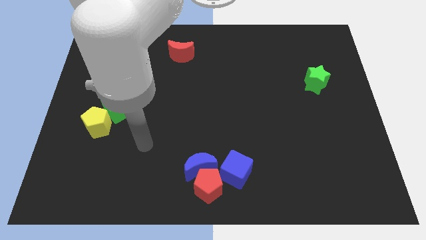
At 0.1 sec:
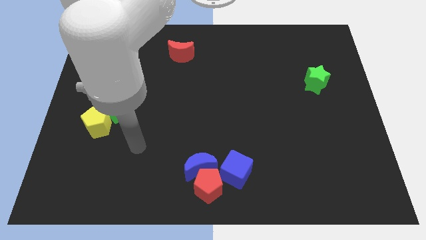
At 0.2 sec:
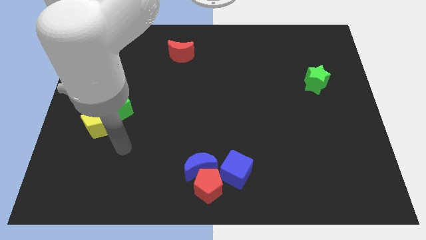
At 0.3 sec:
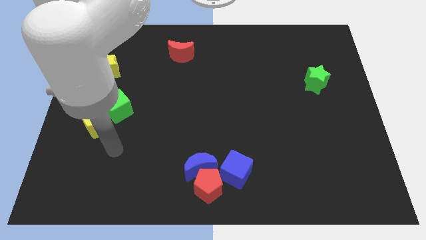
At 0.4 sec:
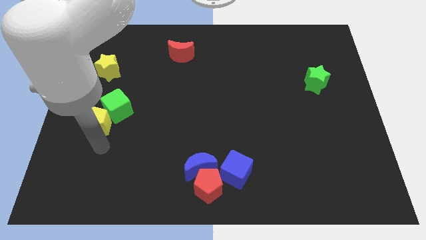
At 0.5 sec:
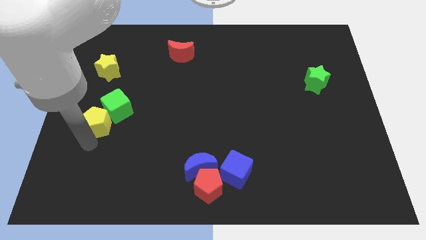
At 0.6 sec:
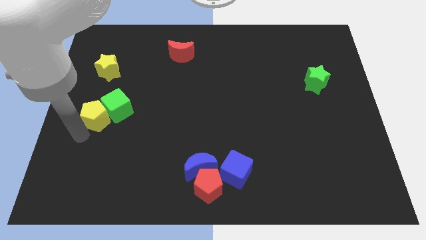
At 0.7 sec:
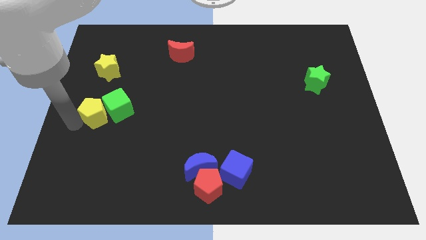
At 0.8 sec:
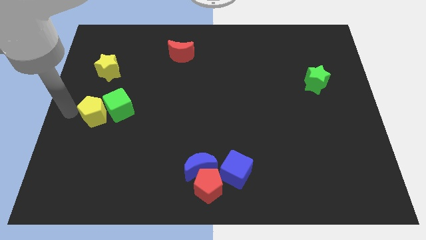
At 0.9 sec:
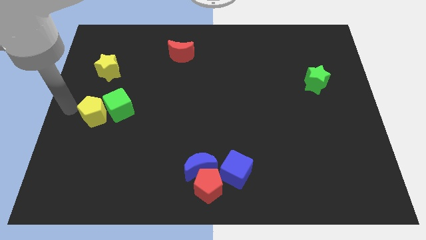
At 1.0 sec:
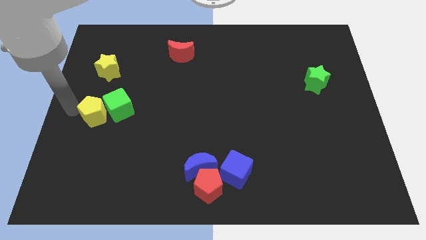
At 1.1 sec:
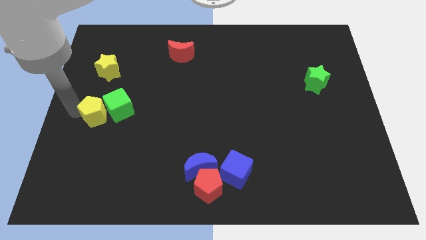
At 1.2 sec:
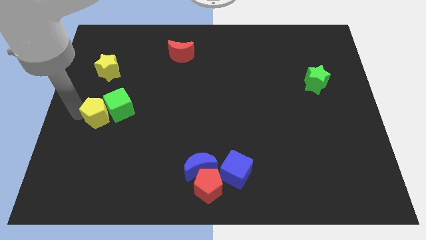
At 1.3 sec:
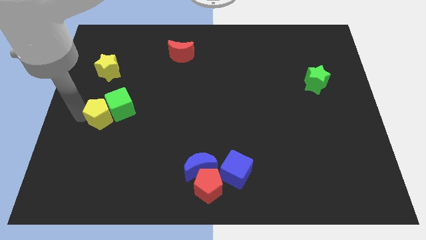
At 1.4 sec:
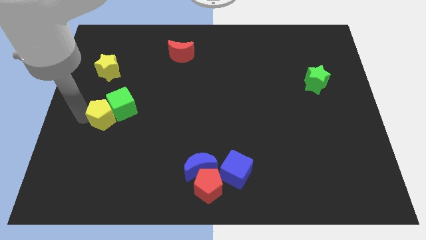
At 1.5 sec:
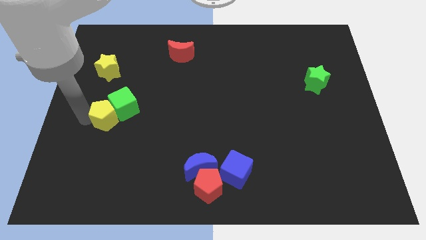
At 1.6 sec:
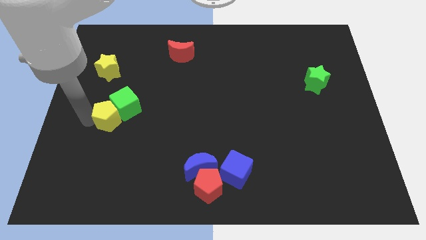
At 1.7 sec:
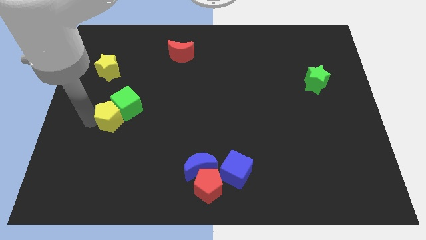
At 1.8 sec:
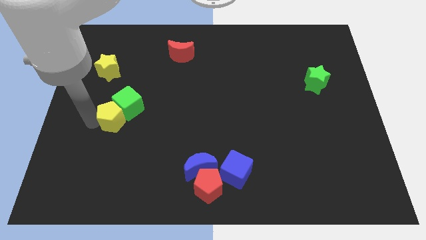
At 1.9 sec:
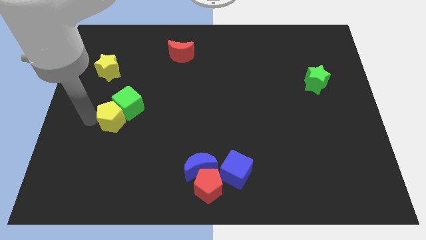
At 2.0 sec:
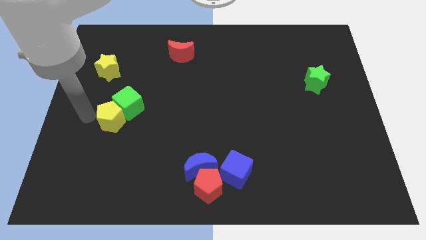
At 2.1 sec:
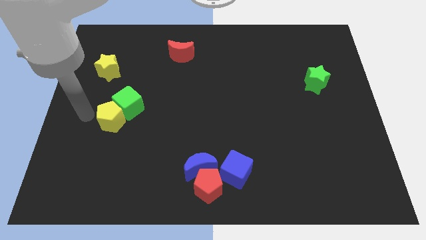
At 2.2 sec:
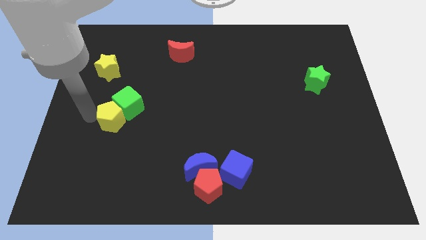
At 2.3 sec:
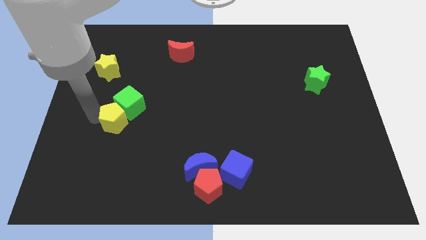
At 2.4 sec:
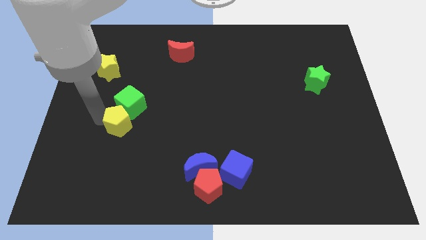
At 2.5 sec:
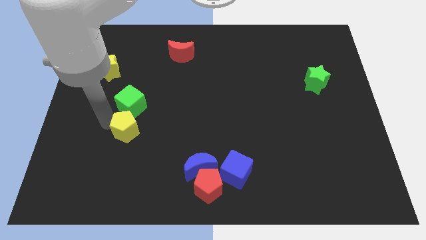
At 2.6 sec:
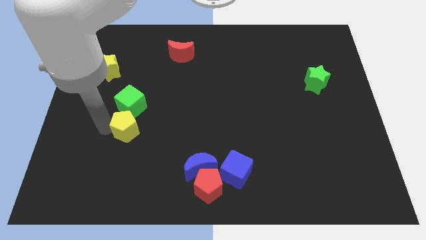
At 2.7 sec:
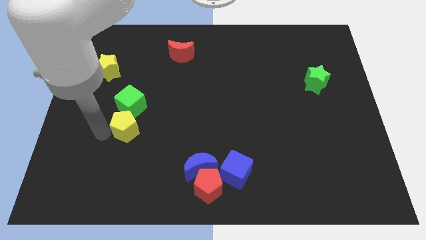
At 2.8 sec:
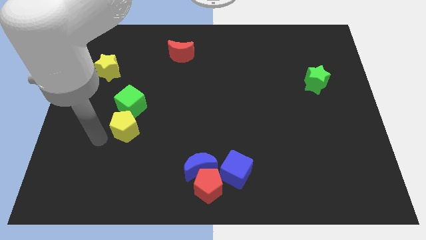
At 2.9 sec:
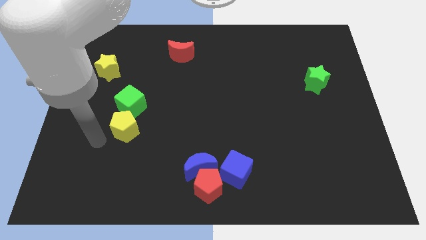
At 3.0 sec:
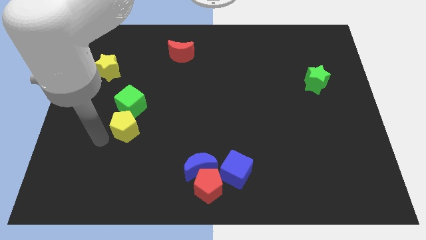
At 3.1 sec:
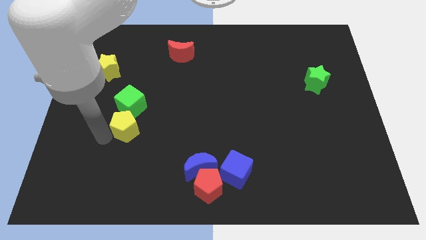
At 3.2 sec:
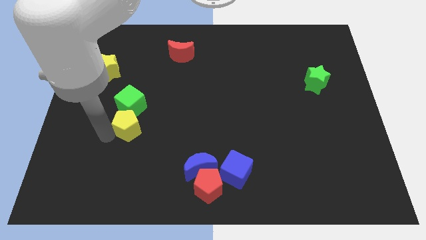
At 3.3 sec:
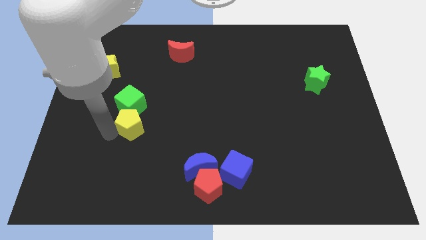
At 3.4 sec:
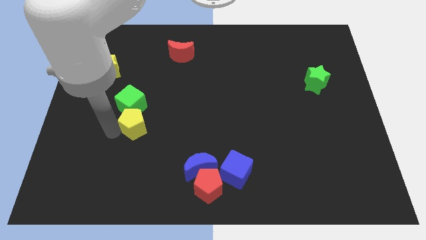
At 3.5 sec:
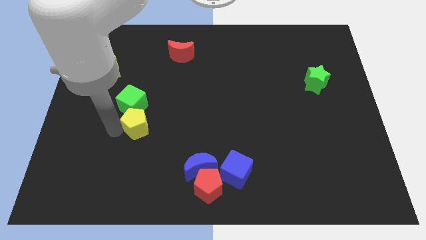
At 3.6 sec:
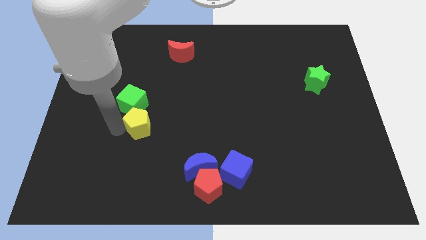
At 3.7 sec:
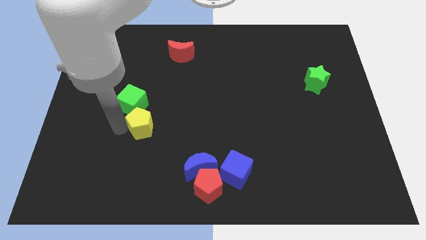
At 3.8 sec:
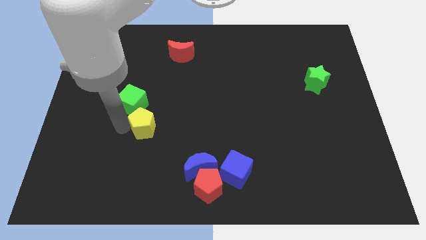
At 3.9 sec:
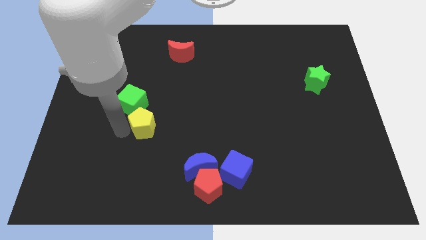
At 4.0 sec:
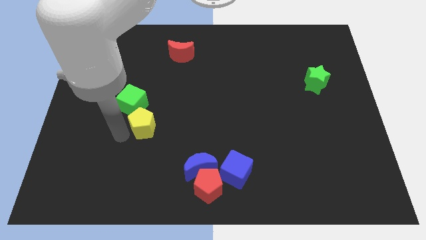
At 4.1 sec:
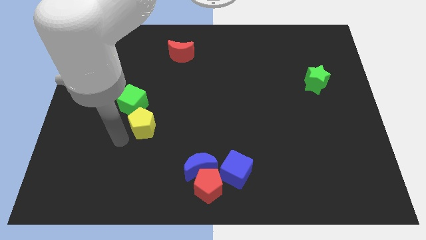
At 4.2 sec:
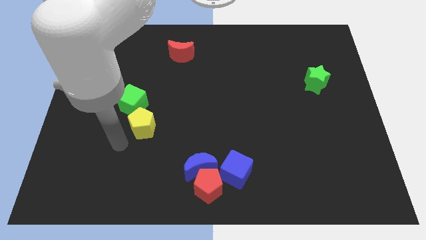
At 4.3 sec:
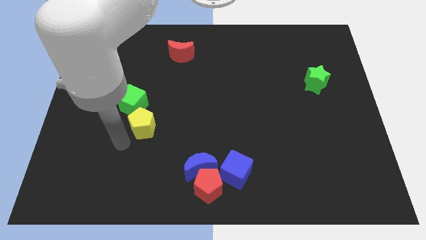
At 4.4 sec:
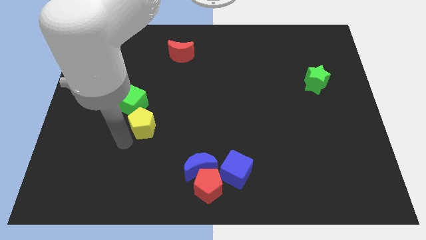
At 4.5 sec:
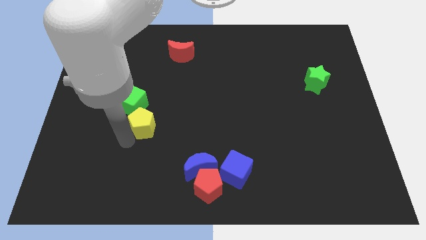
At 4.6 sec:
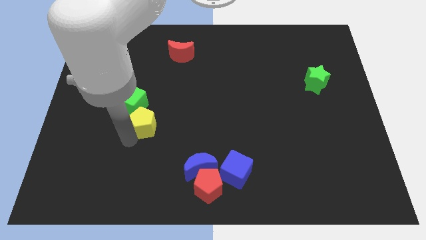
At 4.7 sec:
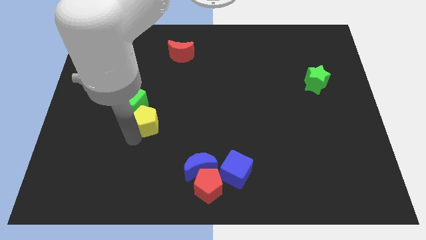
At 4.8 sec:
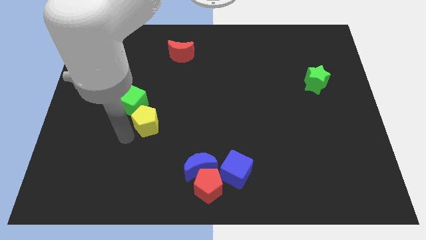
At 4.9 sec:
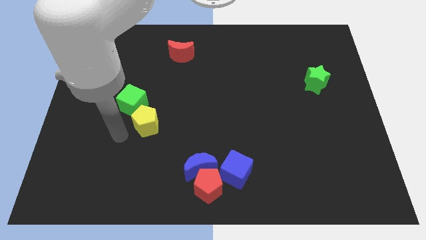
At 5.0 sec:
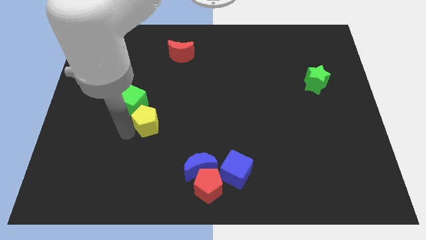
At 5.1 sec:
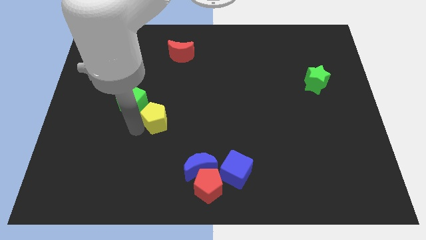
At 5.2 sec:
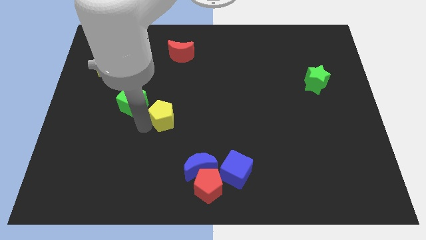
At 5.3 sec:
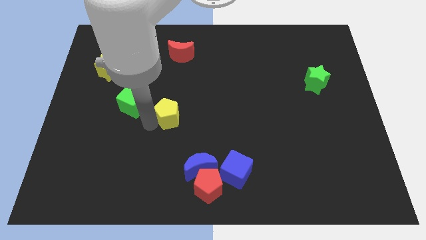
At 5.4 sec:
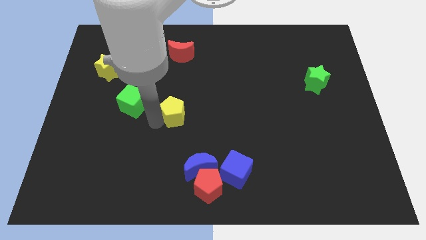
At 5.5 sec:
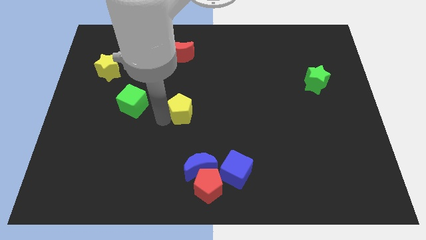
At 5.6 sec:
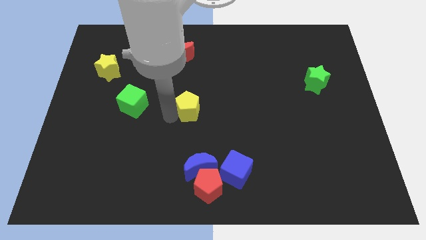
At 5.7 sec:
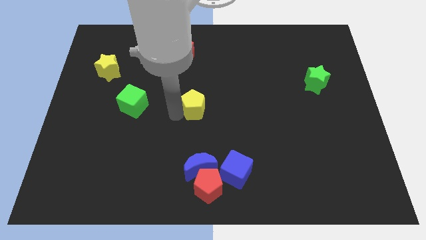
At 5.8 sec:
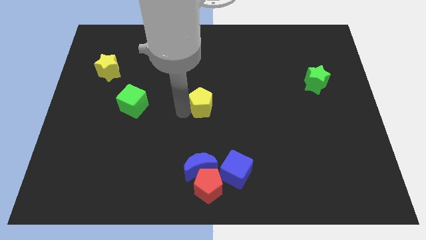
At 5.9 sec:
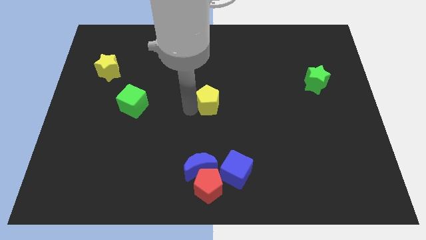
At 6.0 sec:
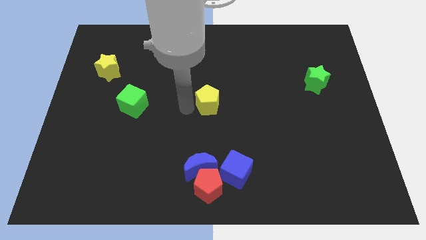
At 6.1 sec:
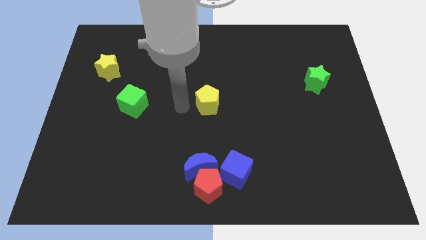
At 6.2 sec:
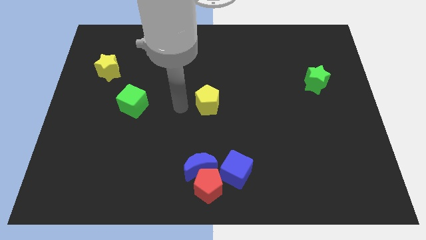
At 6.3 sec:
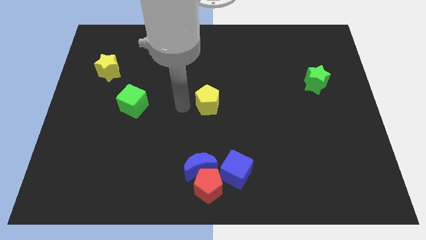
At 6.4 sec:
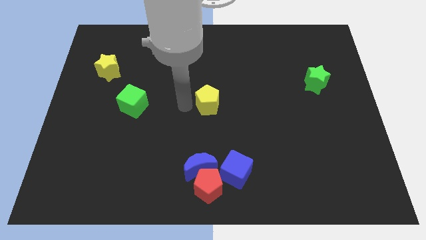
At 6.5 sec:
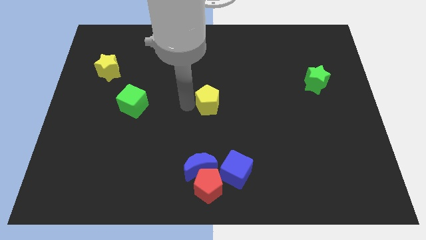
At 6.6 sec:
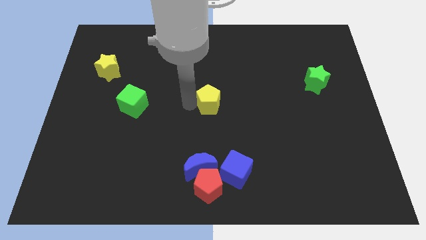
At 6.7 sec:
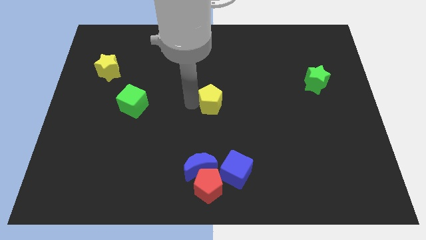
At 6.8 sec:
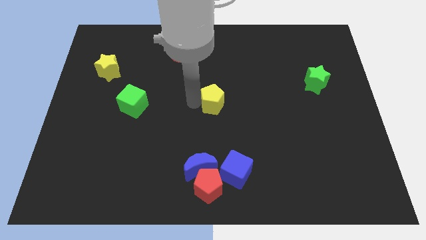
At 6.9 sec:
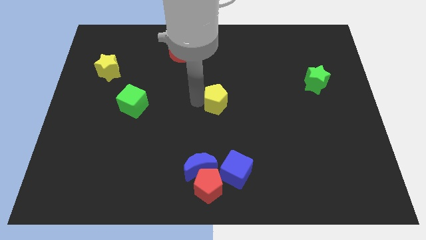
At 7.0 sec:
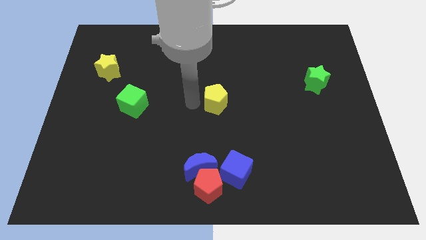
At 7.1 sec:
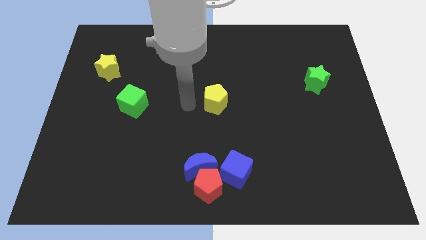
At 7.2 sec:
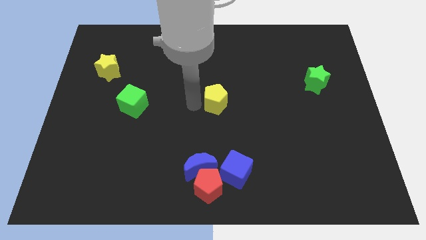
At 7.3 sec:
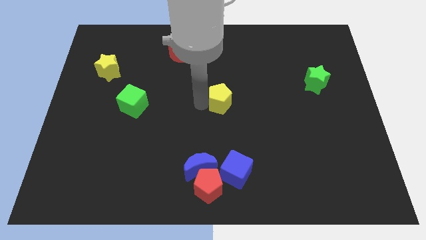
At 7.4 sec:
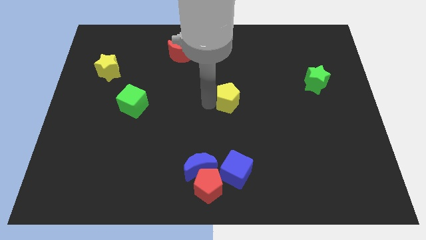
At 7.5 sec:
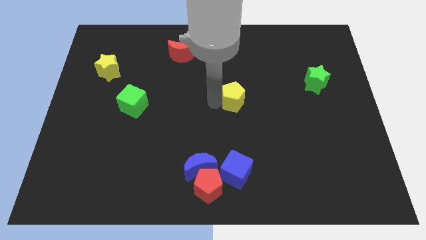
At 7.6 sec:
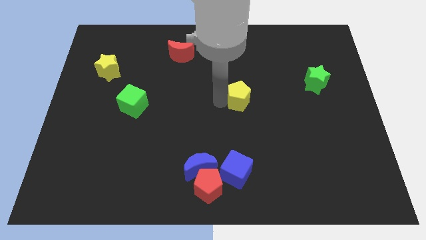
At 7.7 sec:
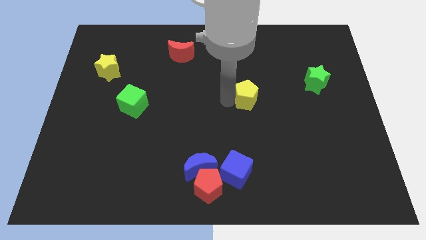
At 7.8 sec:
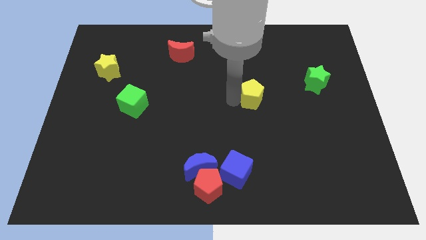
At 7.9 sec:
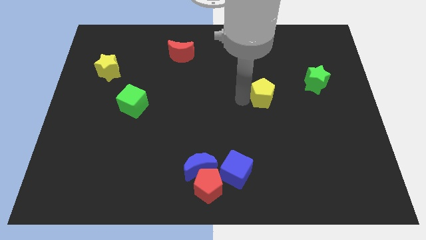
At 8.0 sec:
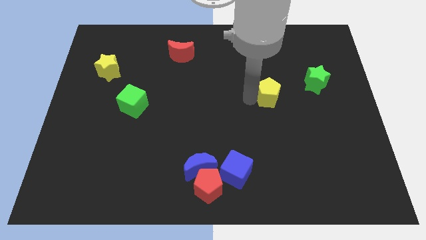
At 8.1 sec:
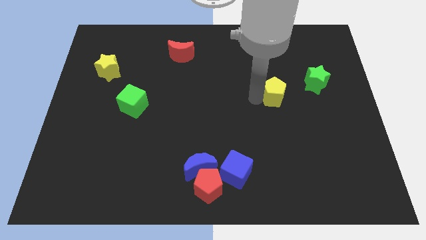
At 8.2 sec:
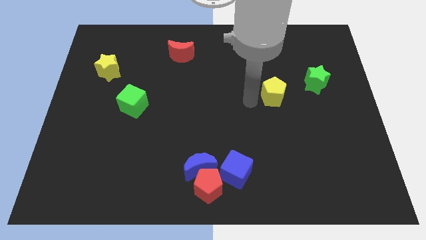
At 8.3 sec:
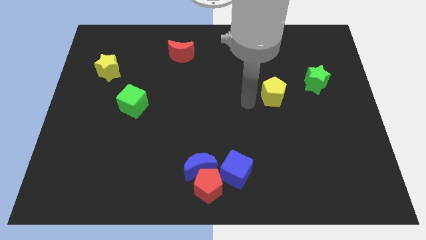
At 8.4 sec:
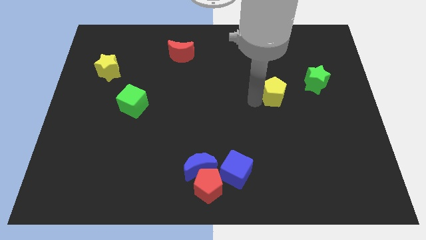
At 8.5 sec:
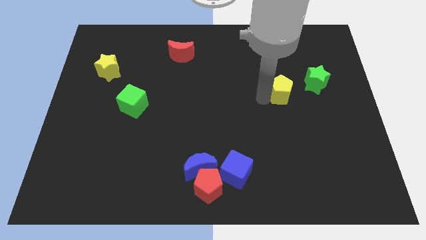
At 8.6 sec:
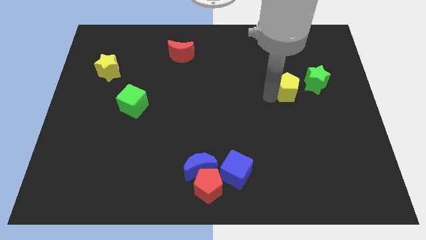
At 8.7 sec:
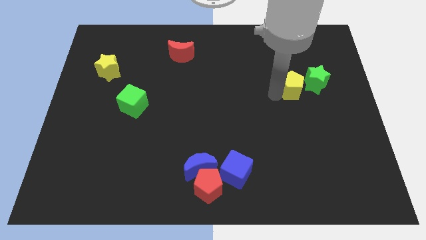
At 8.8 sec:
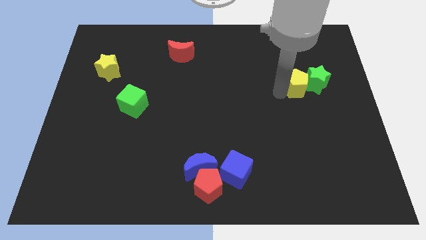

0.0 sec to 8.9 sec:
put the yellow pentagon close to the green star
